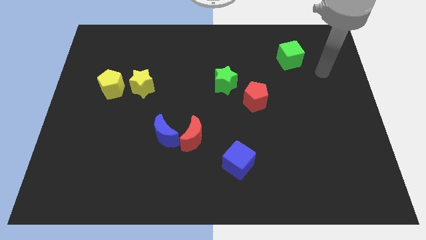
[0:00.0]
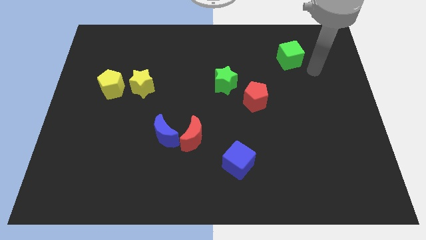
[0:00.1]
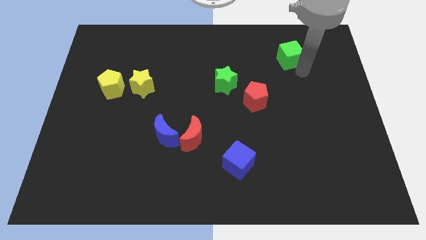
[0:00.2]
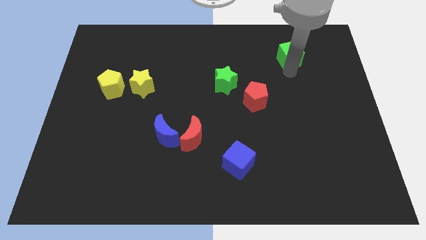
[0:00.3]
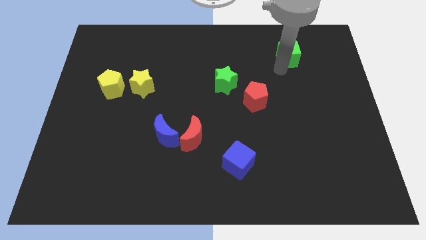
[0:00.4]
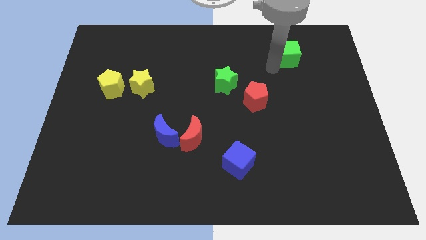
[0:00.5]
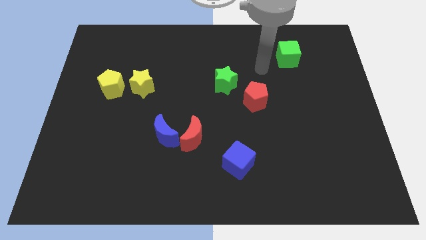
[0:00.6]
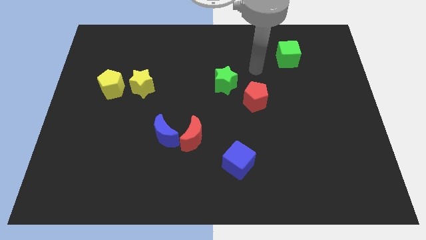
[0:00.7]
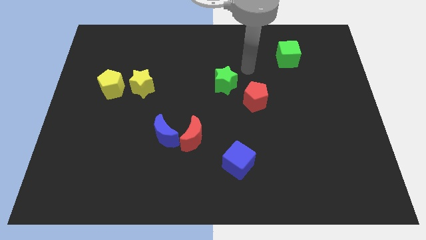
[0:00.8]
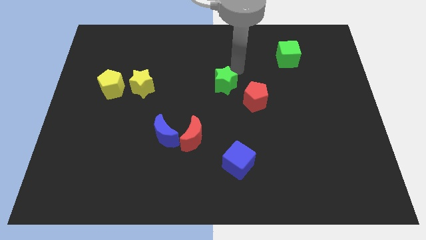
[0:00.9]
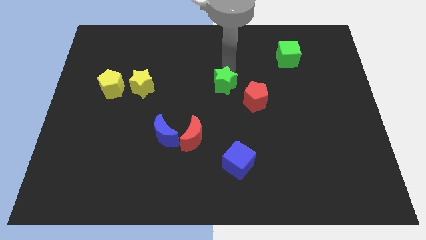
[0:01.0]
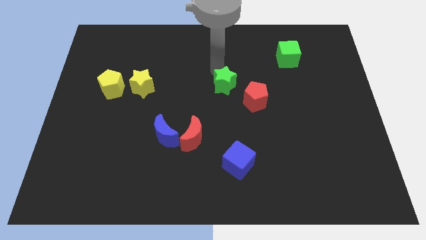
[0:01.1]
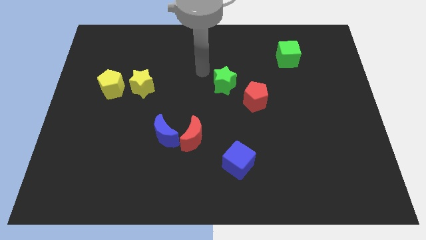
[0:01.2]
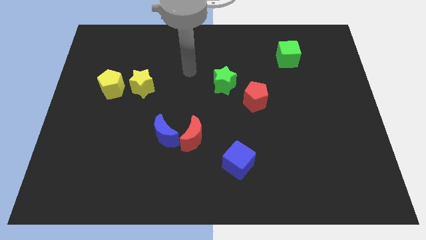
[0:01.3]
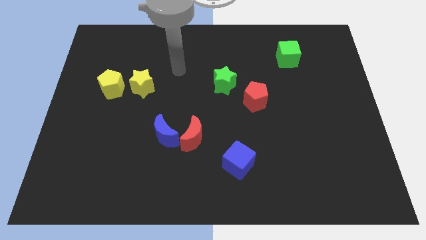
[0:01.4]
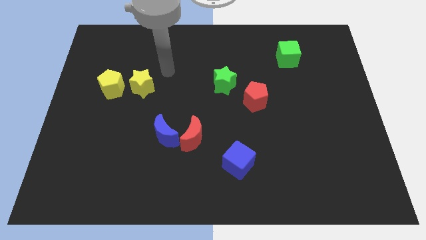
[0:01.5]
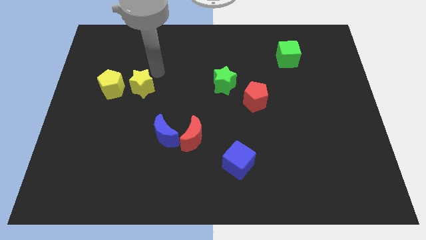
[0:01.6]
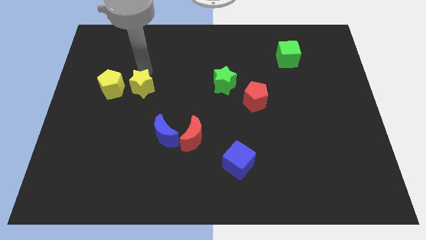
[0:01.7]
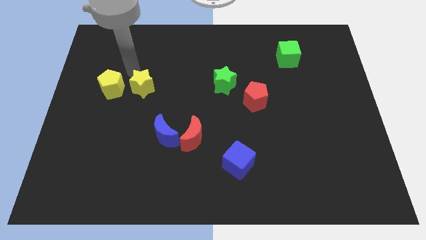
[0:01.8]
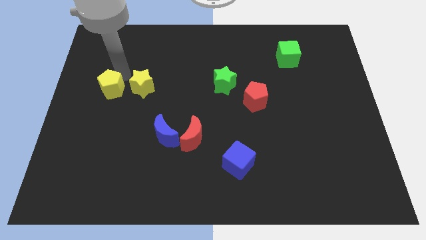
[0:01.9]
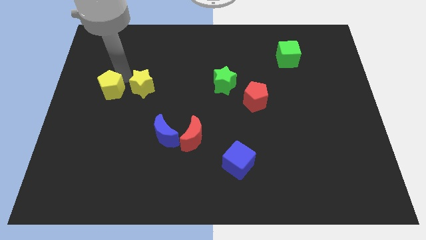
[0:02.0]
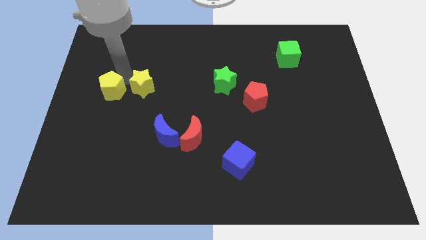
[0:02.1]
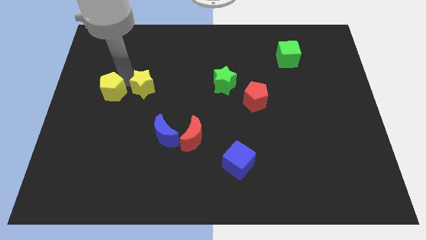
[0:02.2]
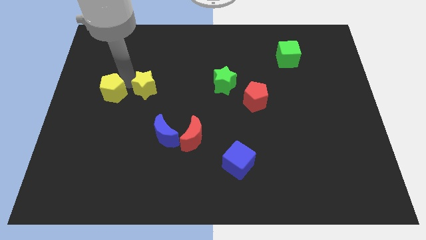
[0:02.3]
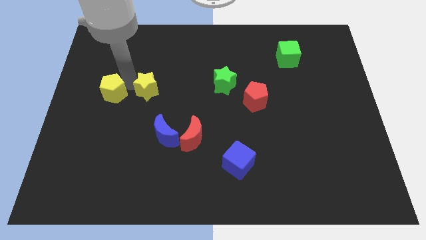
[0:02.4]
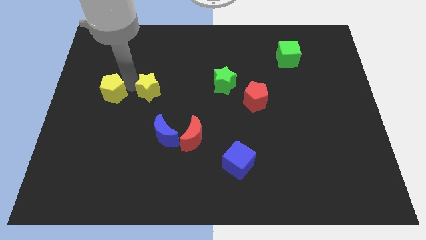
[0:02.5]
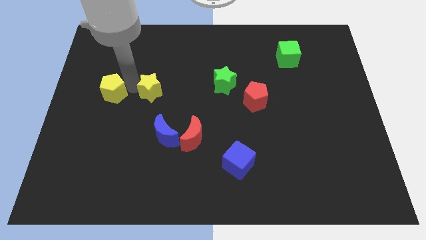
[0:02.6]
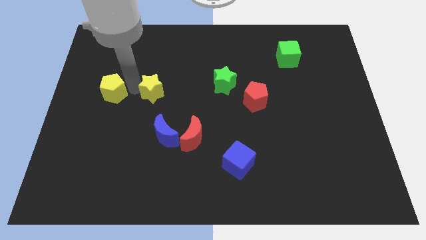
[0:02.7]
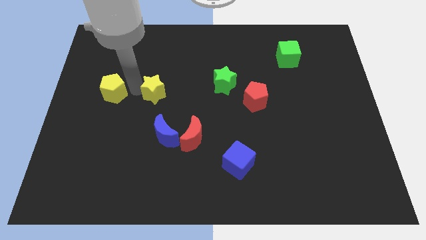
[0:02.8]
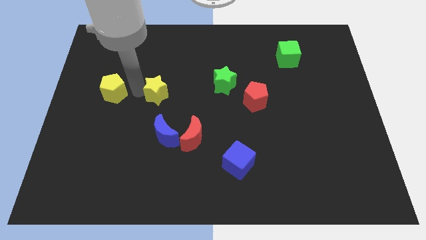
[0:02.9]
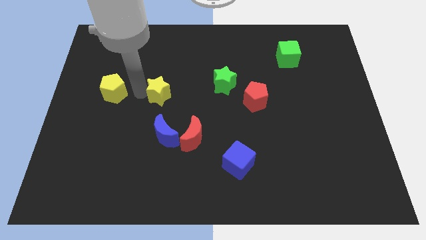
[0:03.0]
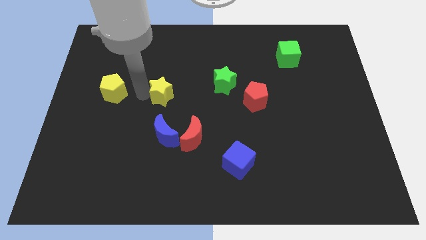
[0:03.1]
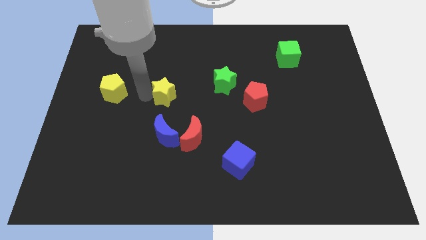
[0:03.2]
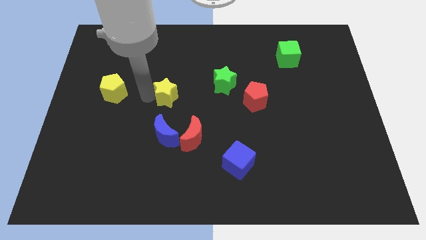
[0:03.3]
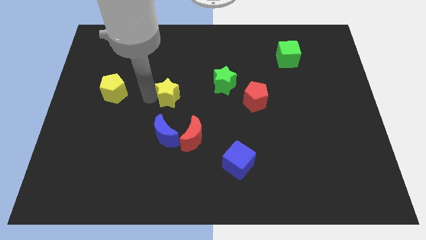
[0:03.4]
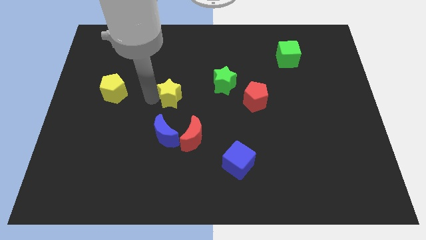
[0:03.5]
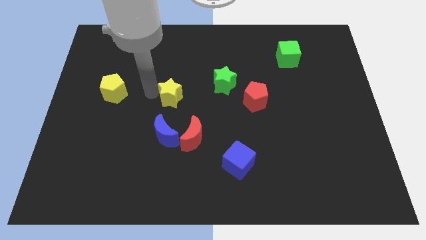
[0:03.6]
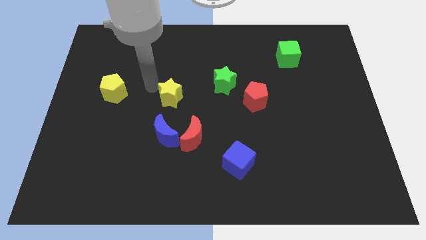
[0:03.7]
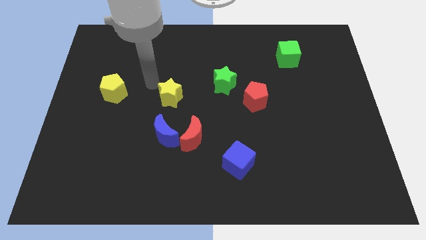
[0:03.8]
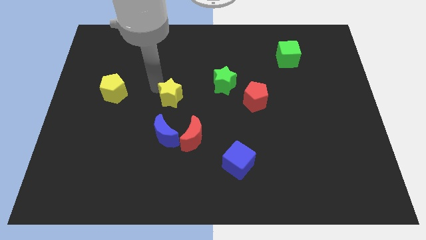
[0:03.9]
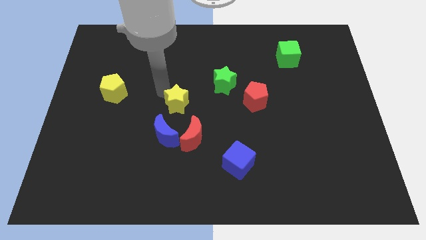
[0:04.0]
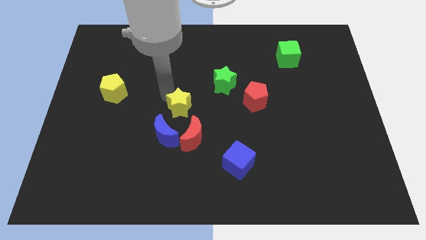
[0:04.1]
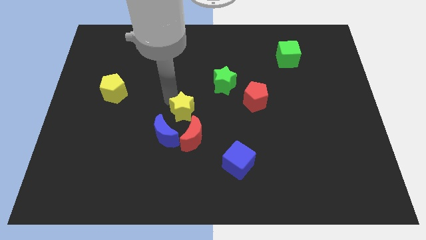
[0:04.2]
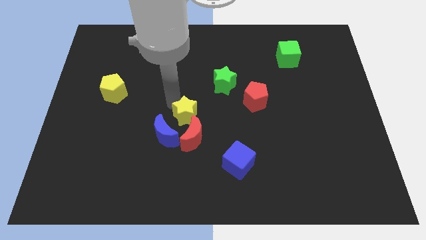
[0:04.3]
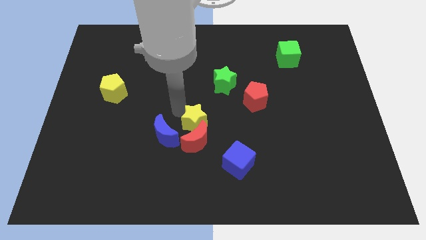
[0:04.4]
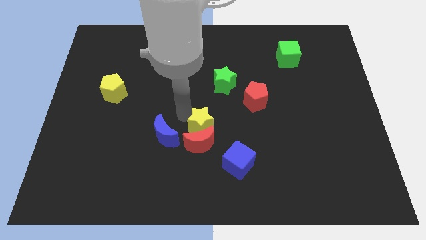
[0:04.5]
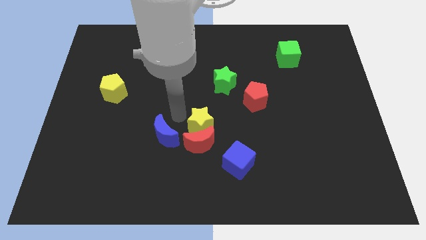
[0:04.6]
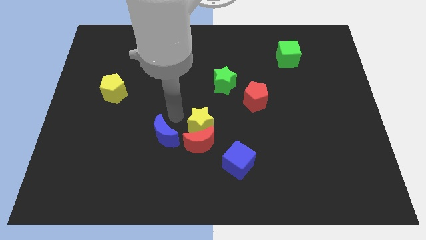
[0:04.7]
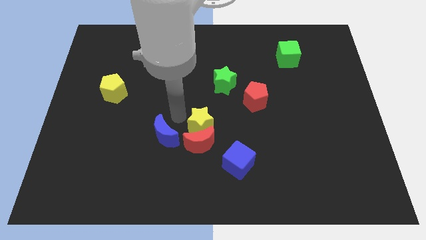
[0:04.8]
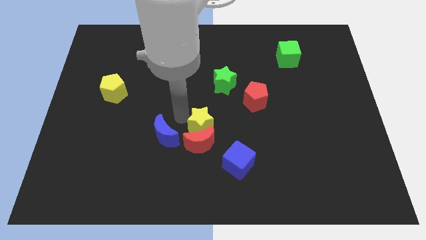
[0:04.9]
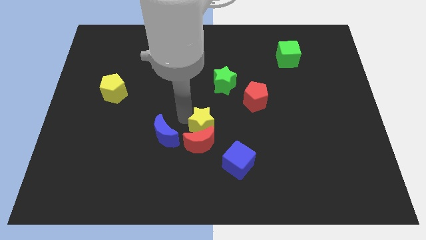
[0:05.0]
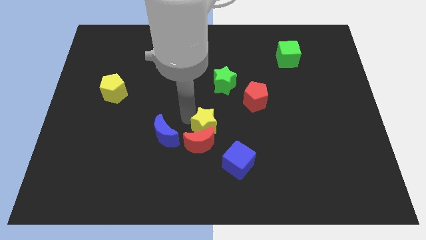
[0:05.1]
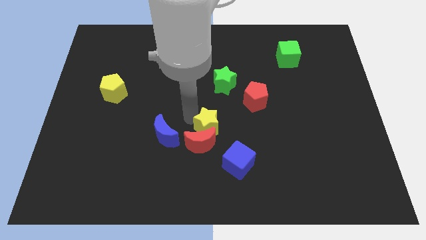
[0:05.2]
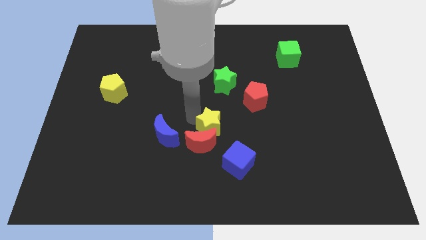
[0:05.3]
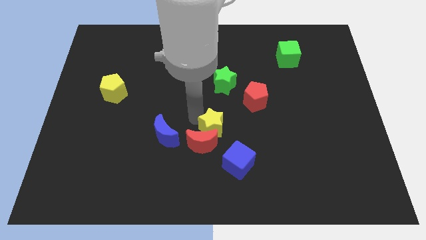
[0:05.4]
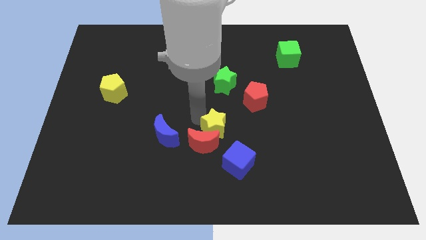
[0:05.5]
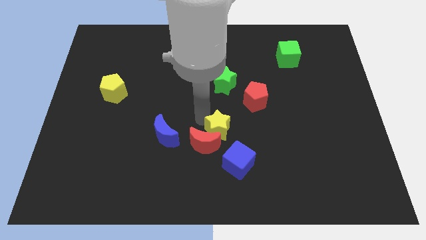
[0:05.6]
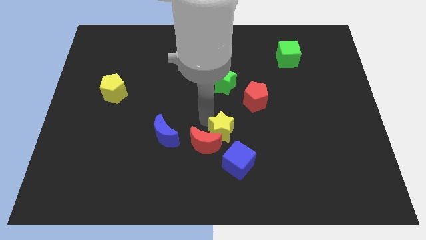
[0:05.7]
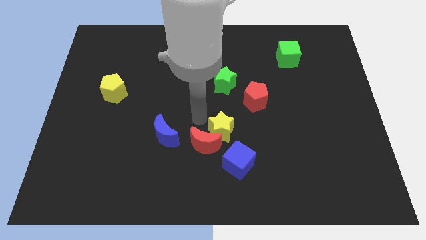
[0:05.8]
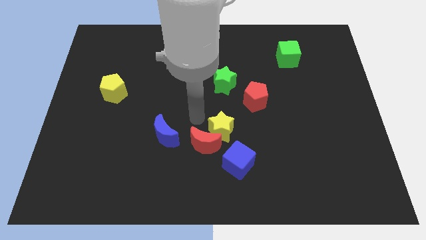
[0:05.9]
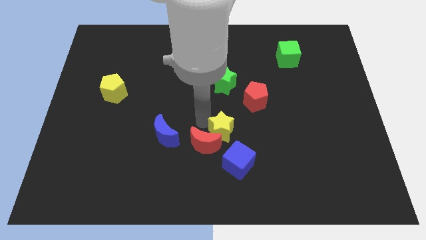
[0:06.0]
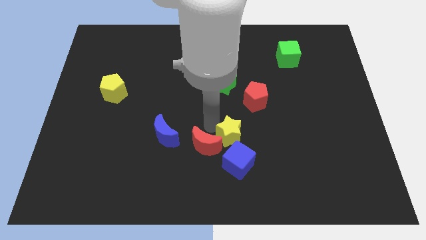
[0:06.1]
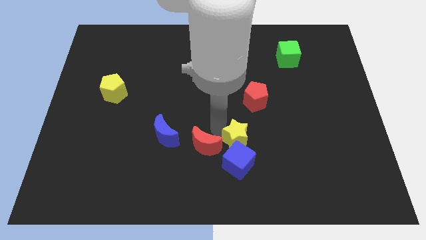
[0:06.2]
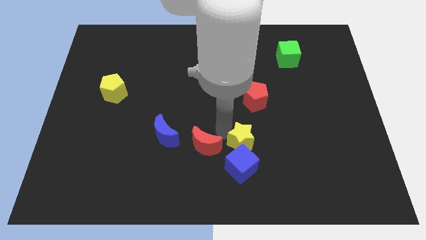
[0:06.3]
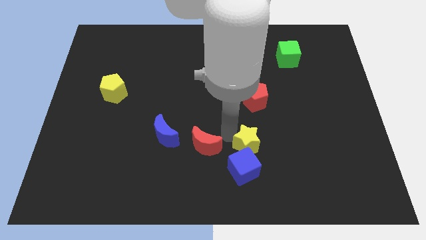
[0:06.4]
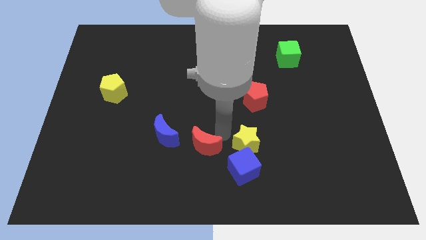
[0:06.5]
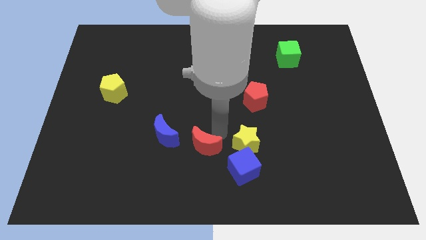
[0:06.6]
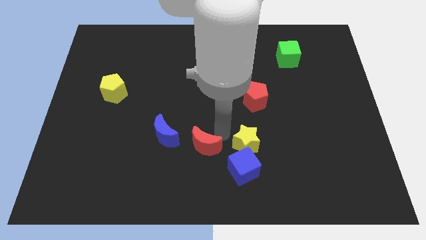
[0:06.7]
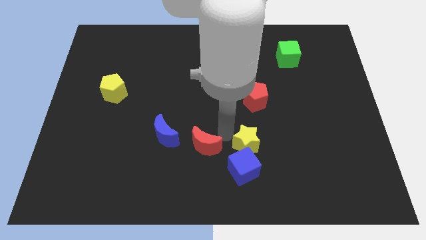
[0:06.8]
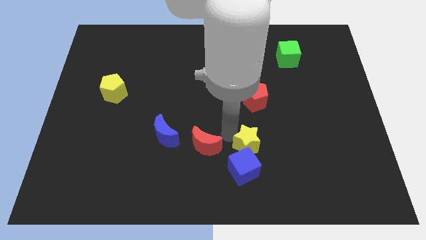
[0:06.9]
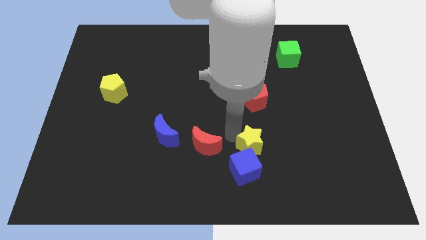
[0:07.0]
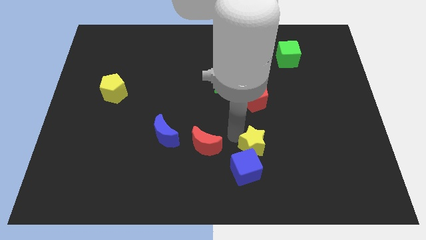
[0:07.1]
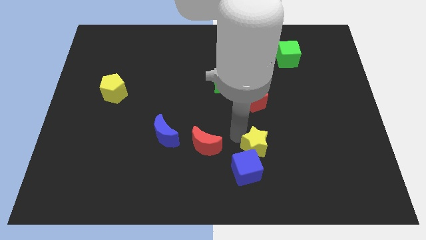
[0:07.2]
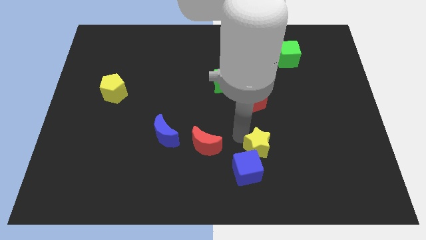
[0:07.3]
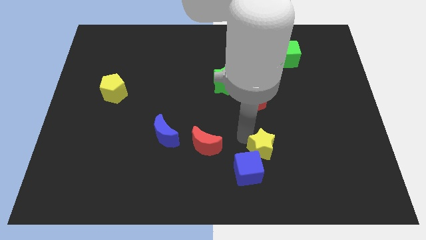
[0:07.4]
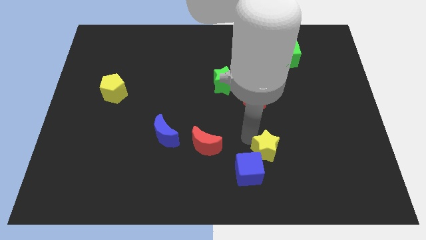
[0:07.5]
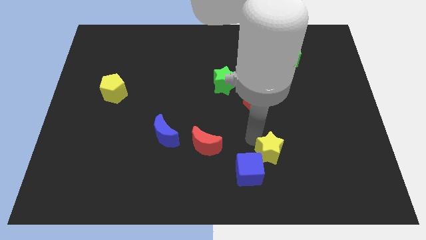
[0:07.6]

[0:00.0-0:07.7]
push the yellow star just right of the blue cube
